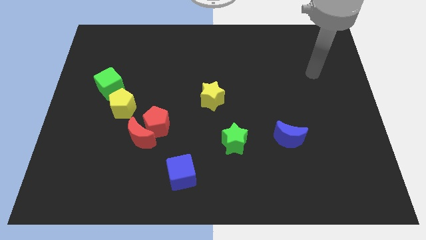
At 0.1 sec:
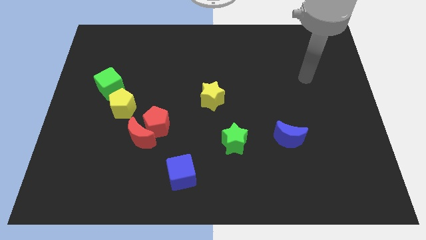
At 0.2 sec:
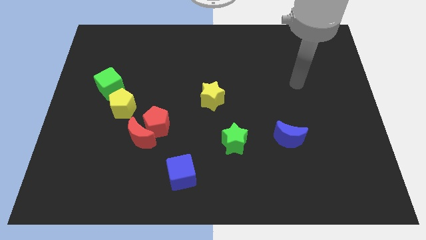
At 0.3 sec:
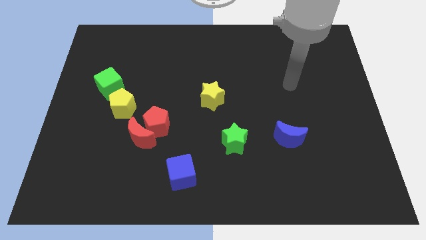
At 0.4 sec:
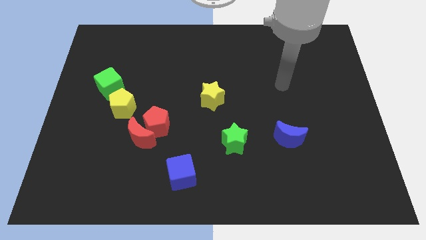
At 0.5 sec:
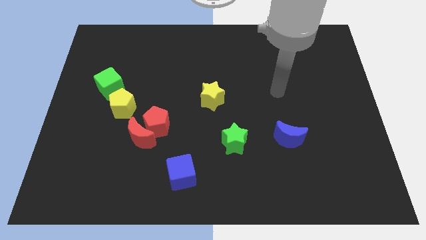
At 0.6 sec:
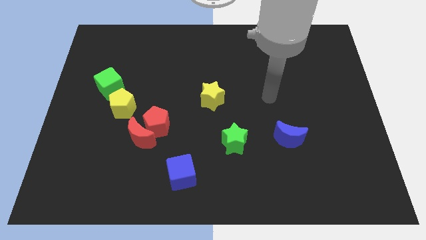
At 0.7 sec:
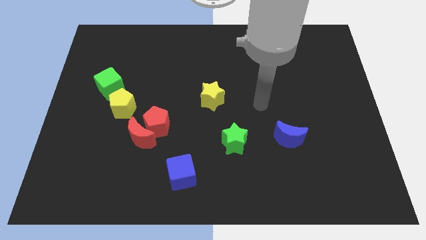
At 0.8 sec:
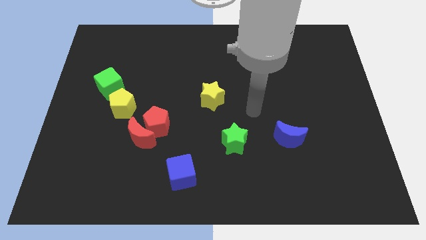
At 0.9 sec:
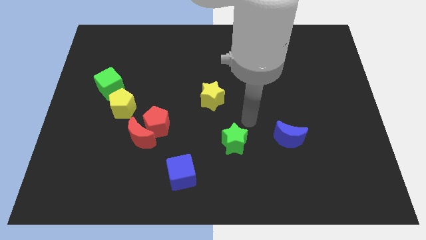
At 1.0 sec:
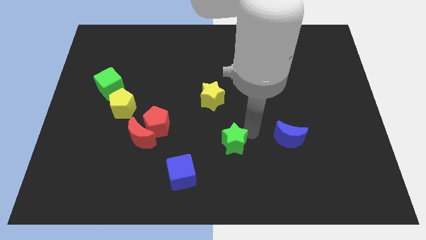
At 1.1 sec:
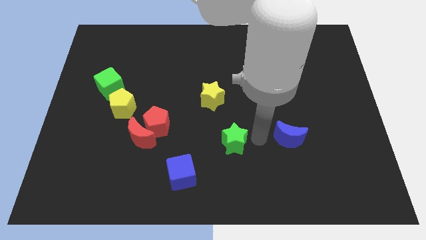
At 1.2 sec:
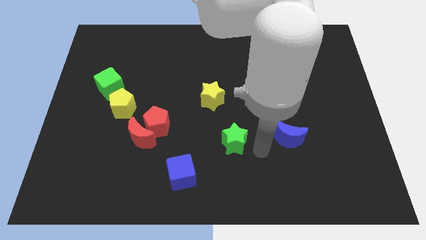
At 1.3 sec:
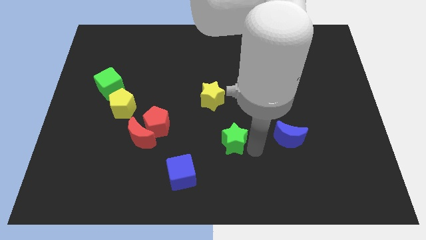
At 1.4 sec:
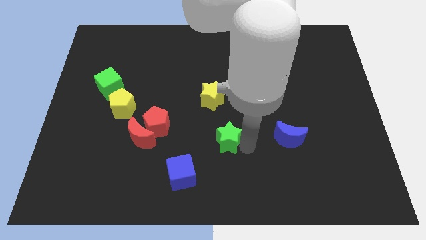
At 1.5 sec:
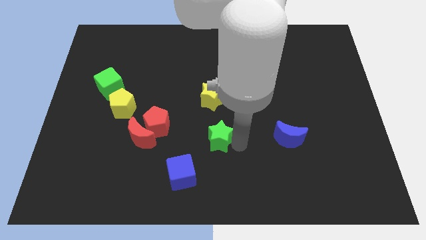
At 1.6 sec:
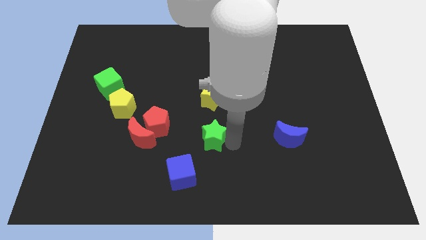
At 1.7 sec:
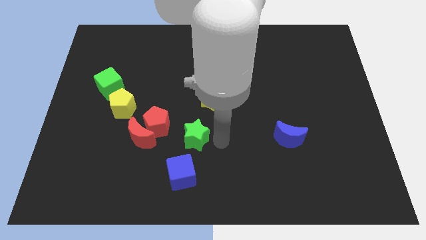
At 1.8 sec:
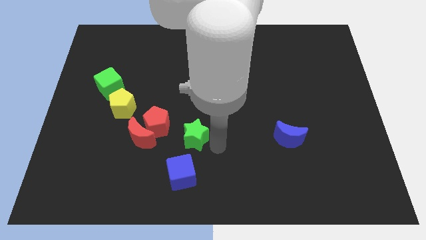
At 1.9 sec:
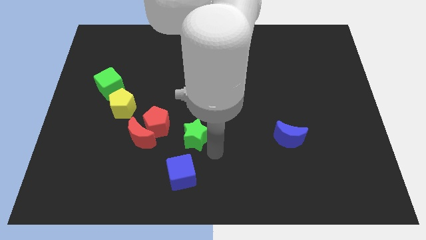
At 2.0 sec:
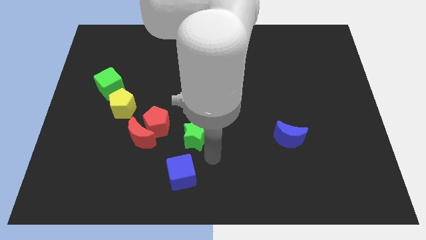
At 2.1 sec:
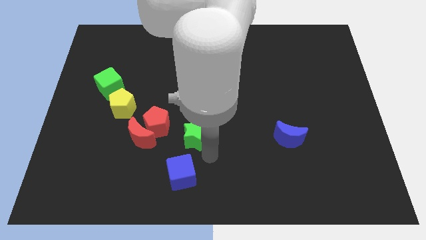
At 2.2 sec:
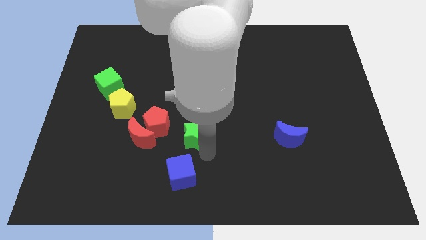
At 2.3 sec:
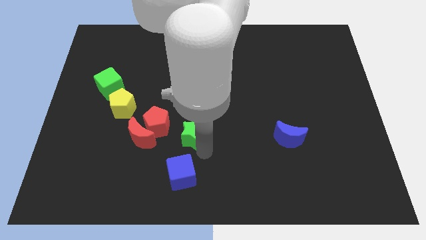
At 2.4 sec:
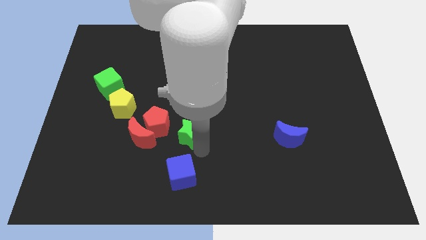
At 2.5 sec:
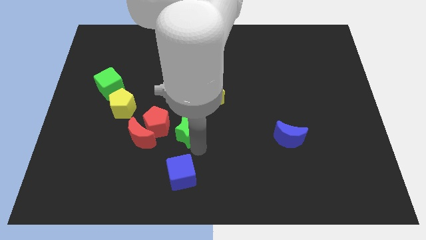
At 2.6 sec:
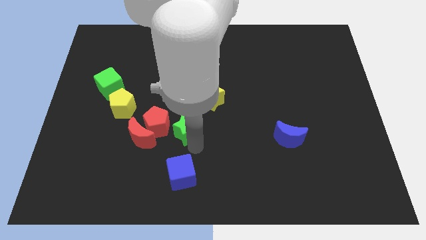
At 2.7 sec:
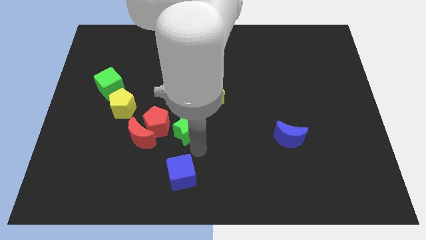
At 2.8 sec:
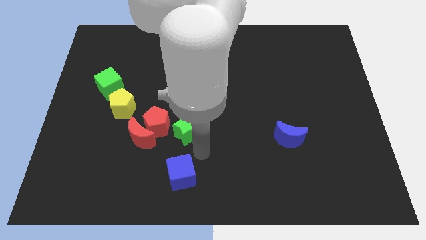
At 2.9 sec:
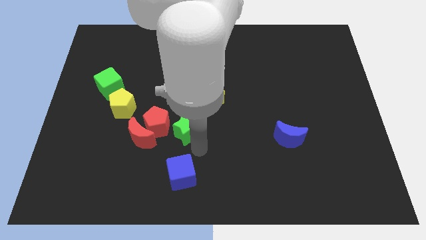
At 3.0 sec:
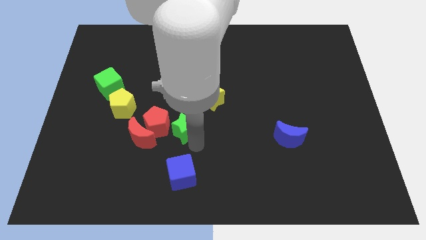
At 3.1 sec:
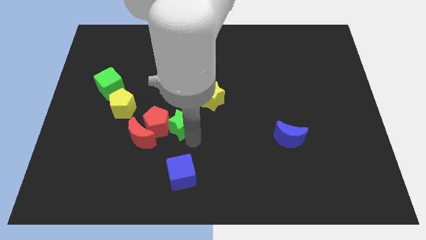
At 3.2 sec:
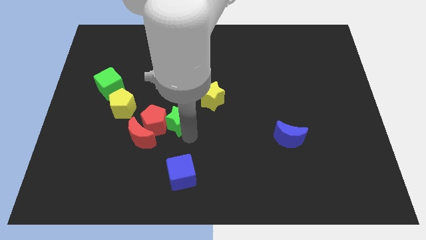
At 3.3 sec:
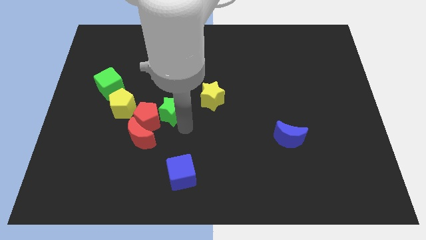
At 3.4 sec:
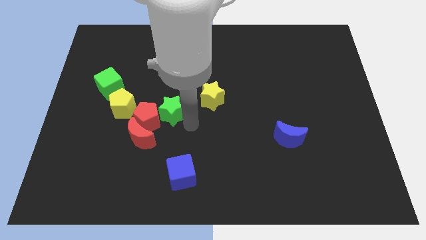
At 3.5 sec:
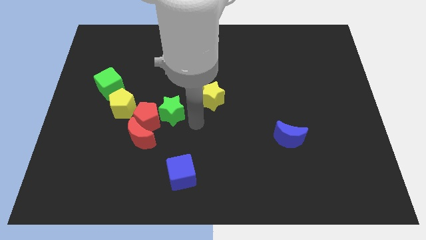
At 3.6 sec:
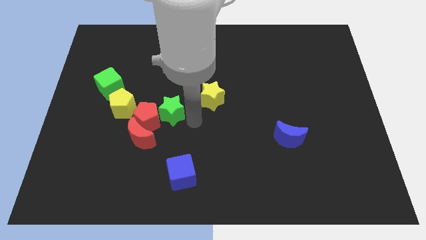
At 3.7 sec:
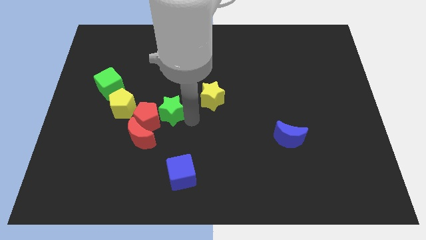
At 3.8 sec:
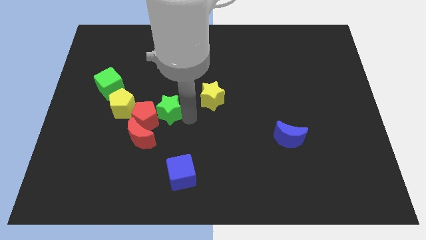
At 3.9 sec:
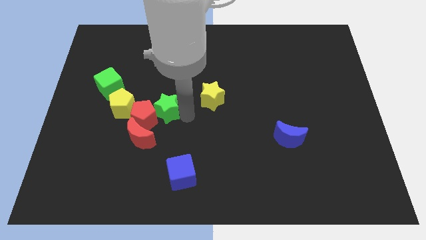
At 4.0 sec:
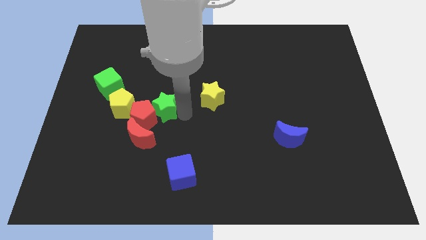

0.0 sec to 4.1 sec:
push the green star above the red moon

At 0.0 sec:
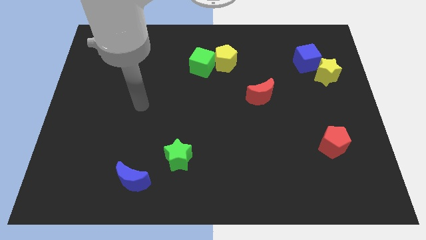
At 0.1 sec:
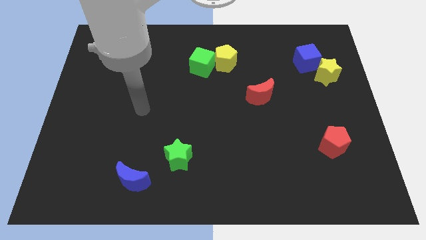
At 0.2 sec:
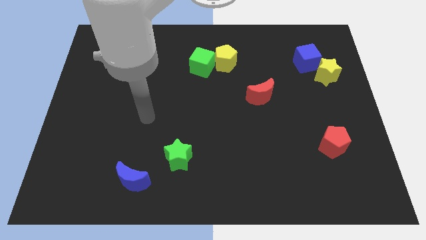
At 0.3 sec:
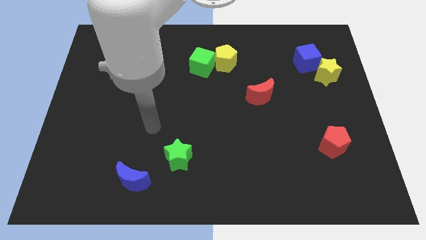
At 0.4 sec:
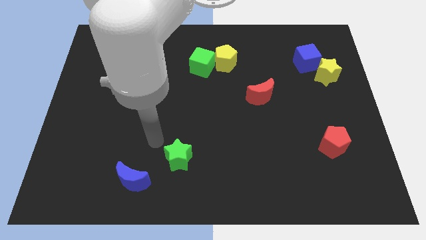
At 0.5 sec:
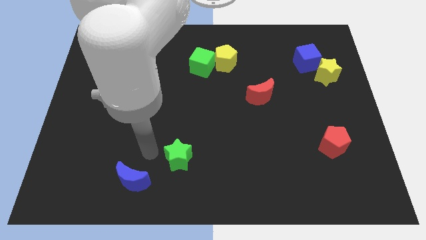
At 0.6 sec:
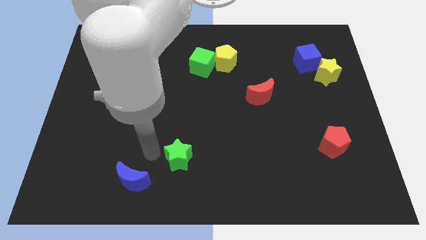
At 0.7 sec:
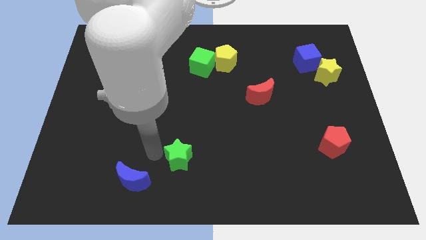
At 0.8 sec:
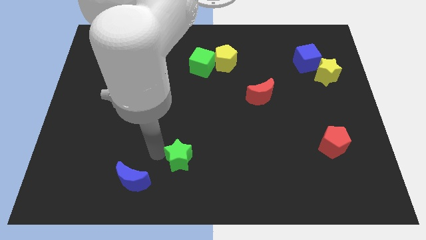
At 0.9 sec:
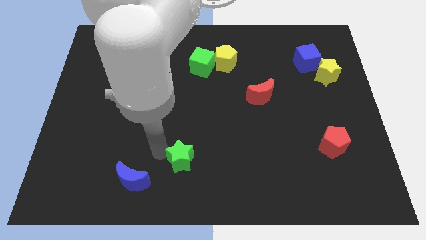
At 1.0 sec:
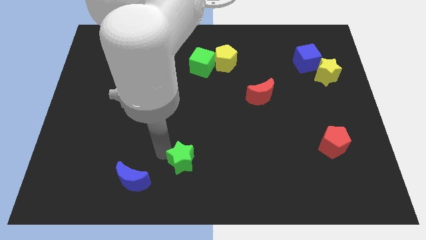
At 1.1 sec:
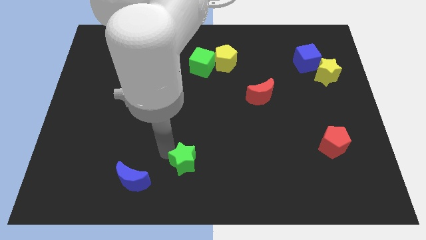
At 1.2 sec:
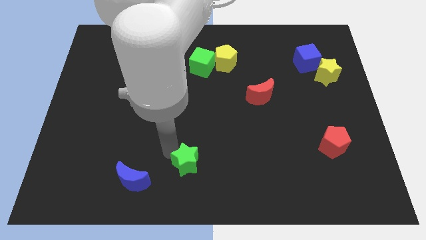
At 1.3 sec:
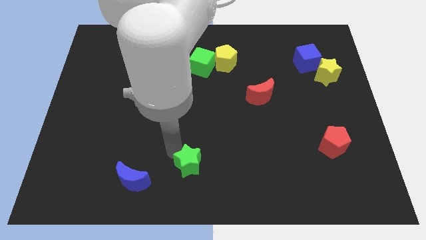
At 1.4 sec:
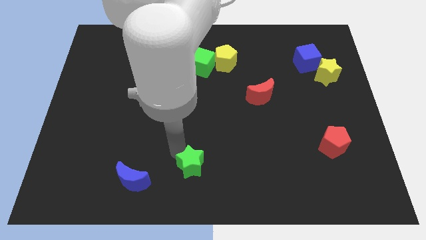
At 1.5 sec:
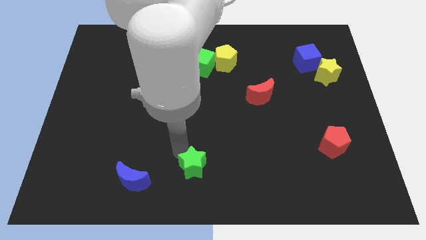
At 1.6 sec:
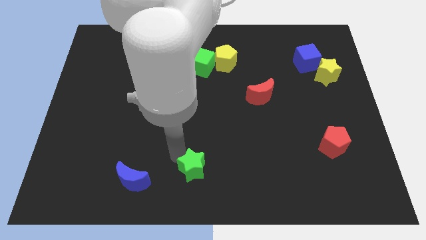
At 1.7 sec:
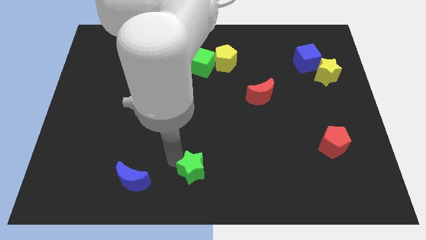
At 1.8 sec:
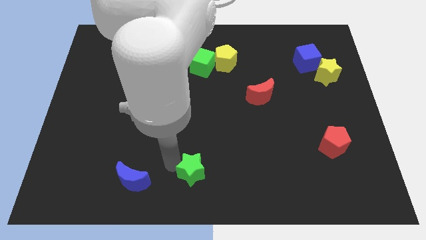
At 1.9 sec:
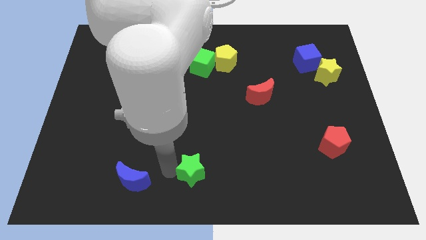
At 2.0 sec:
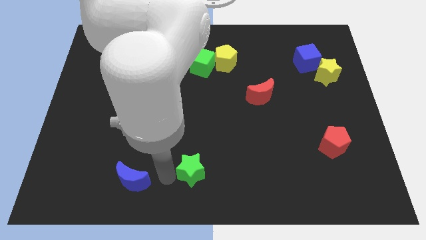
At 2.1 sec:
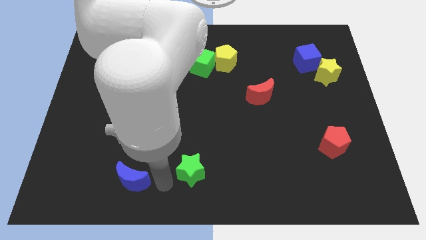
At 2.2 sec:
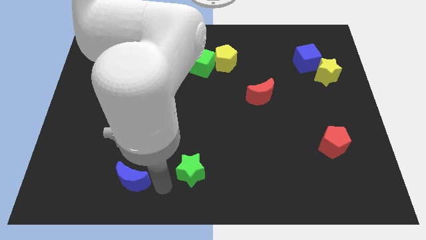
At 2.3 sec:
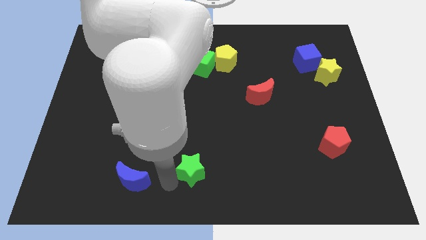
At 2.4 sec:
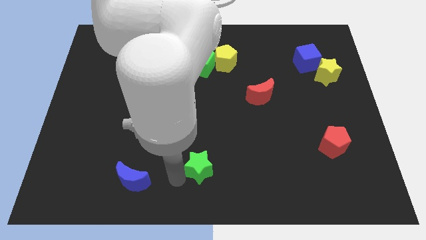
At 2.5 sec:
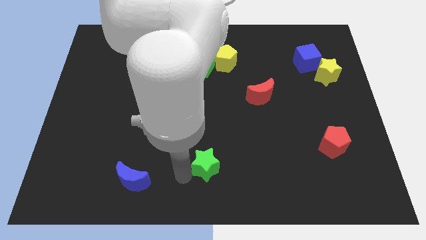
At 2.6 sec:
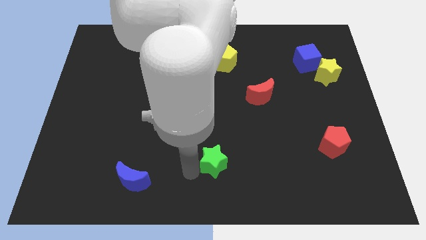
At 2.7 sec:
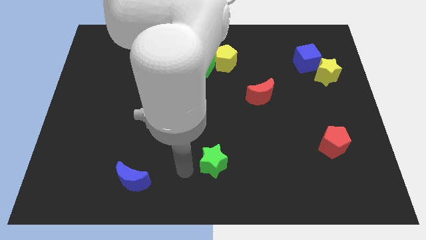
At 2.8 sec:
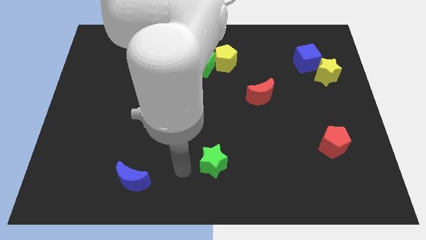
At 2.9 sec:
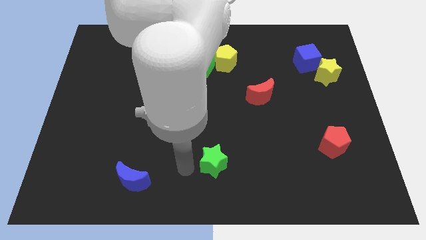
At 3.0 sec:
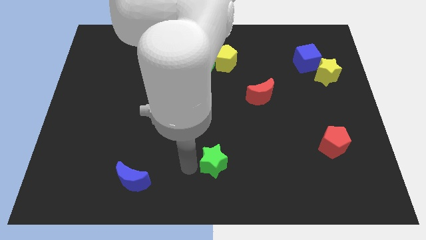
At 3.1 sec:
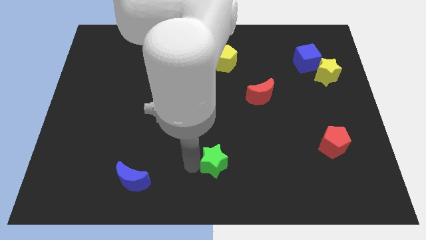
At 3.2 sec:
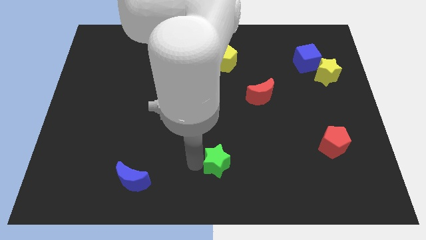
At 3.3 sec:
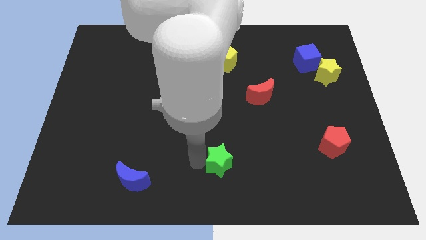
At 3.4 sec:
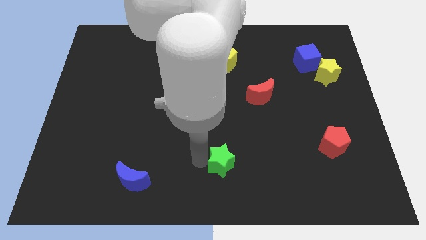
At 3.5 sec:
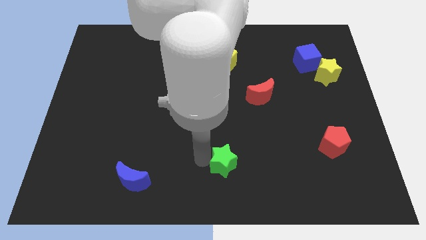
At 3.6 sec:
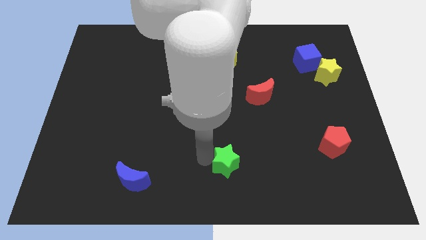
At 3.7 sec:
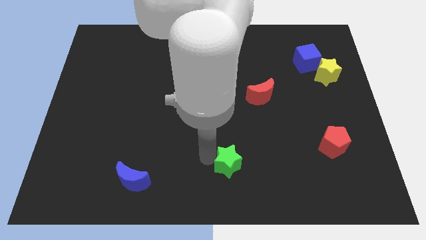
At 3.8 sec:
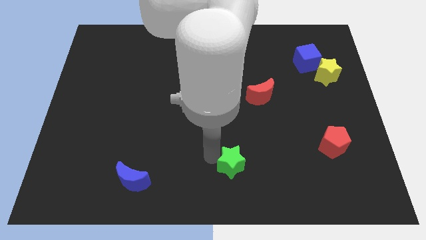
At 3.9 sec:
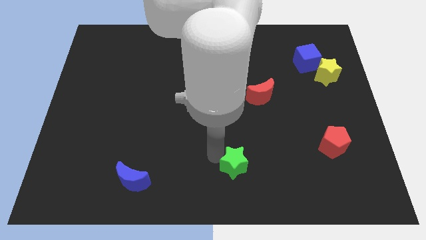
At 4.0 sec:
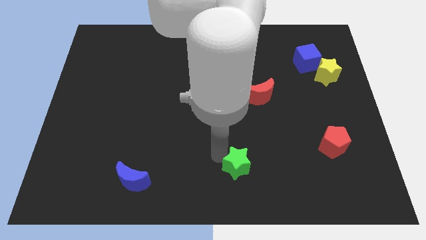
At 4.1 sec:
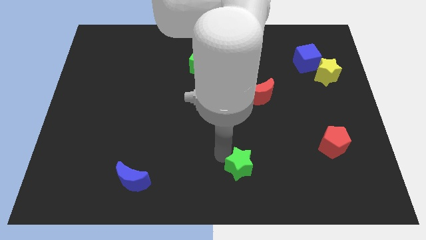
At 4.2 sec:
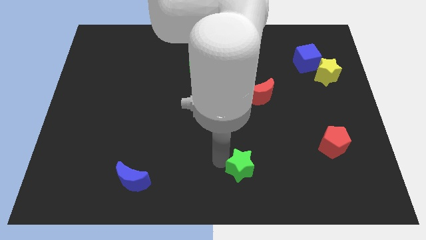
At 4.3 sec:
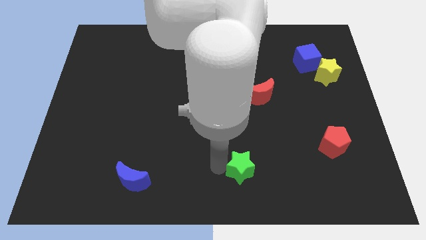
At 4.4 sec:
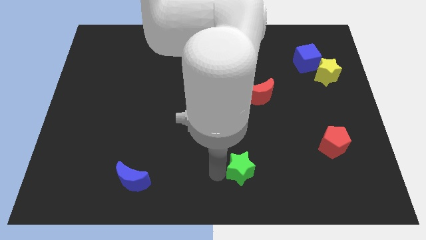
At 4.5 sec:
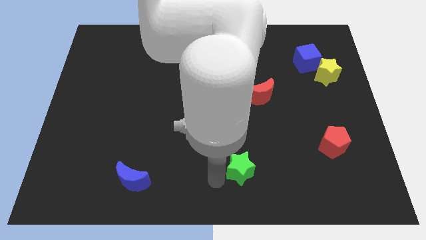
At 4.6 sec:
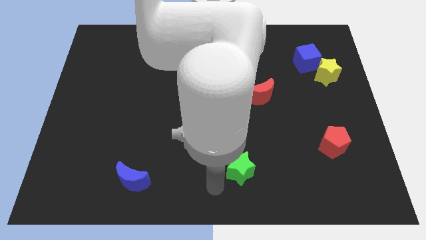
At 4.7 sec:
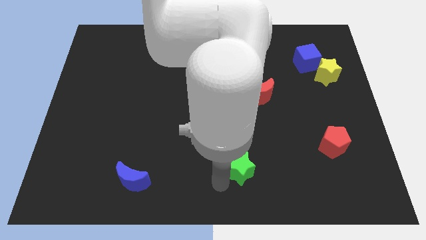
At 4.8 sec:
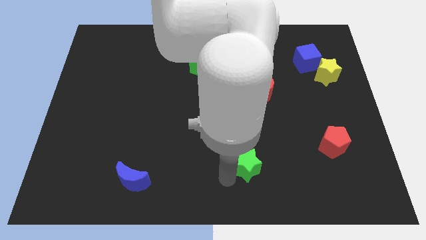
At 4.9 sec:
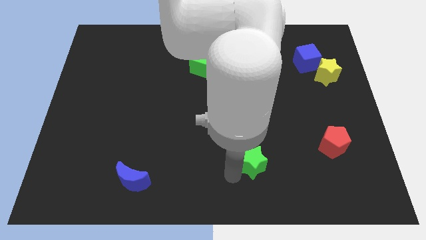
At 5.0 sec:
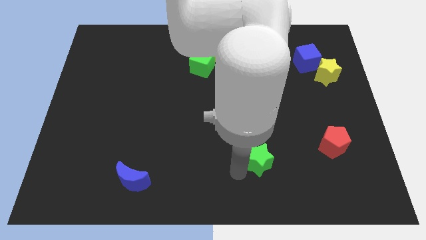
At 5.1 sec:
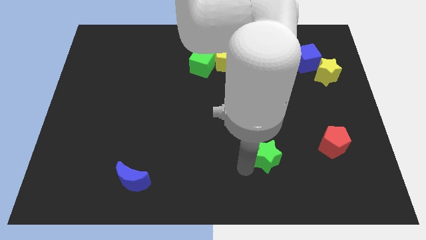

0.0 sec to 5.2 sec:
put the green star left of the red pentagon
